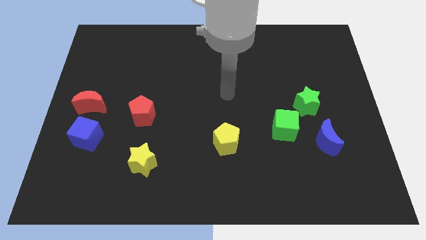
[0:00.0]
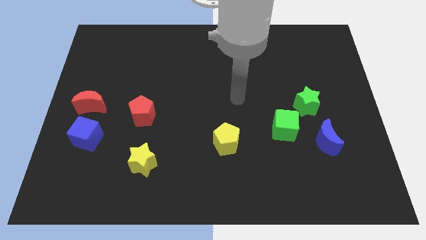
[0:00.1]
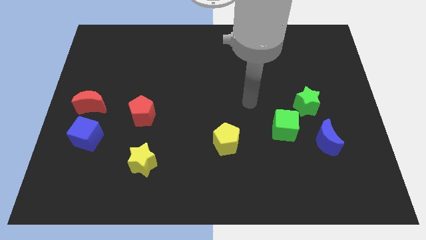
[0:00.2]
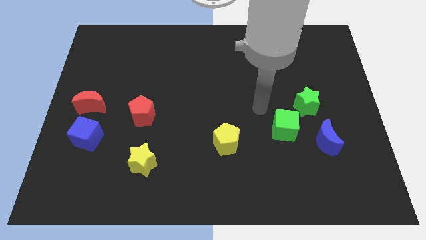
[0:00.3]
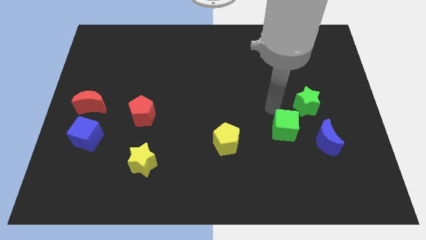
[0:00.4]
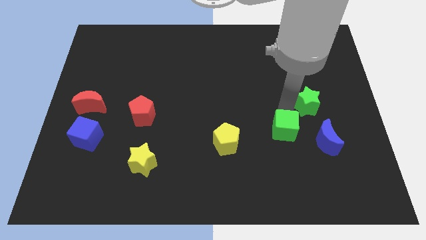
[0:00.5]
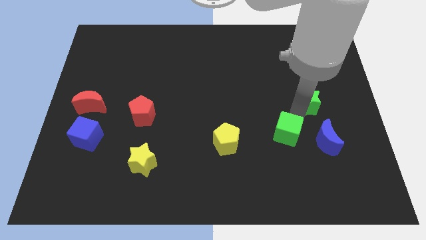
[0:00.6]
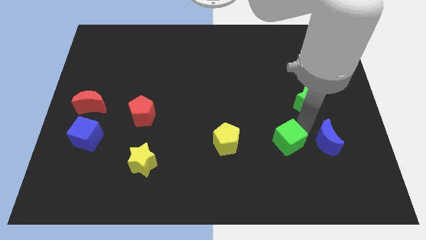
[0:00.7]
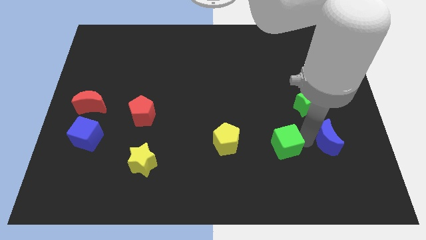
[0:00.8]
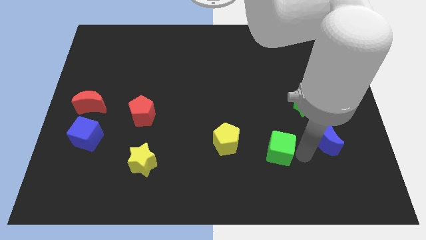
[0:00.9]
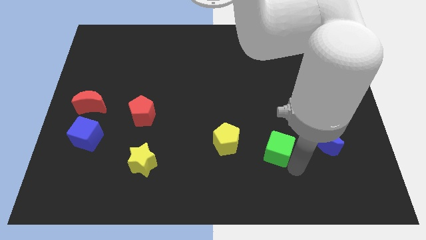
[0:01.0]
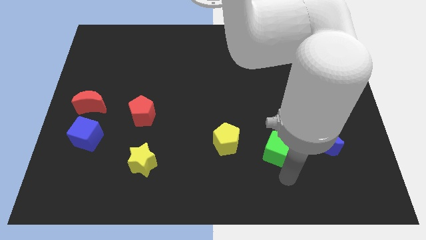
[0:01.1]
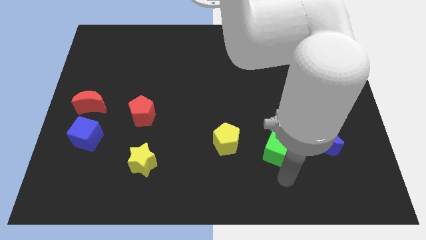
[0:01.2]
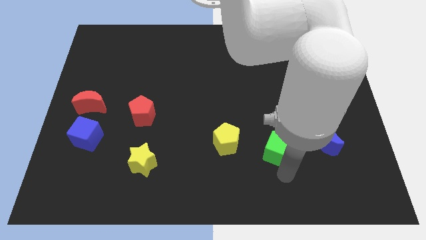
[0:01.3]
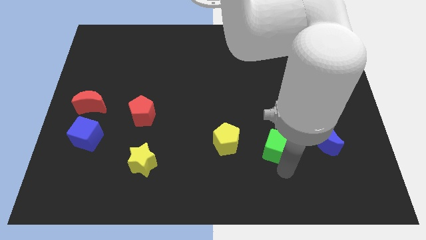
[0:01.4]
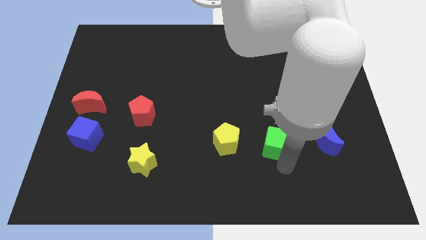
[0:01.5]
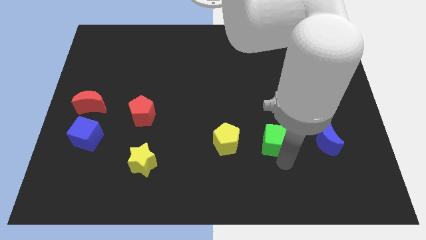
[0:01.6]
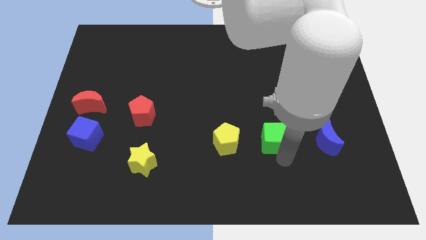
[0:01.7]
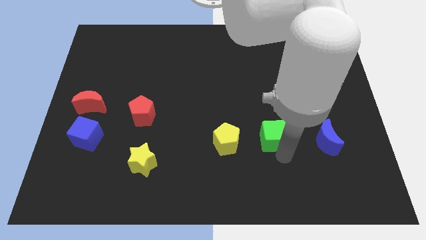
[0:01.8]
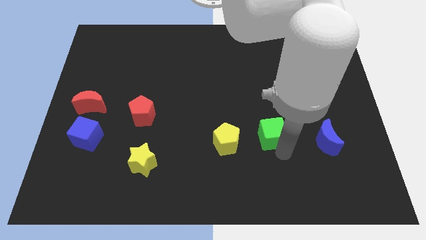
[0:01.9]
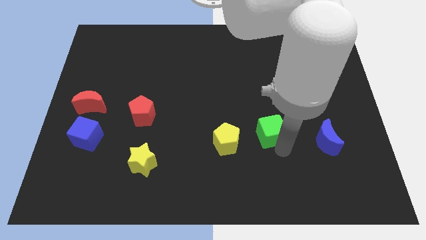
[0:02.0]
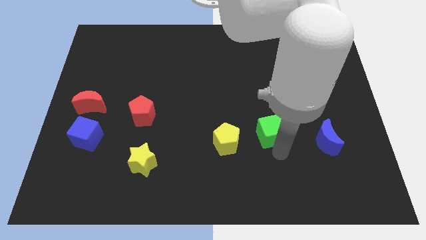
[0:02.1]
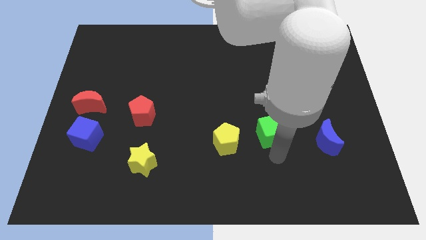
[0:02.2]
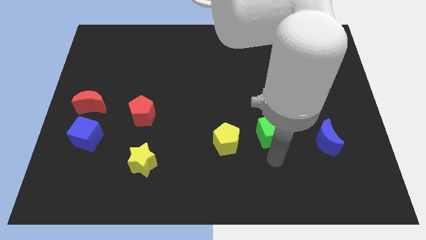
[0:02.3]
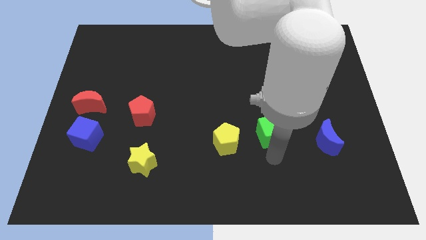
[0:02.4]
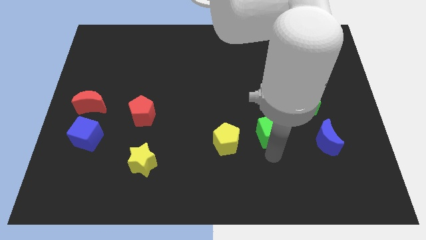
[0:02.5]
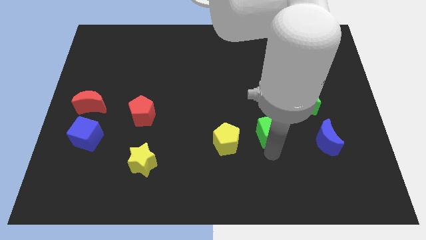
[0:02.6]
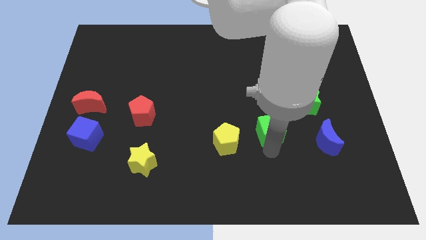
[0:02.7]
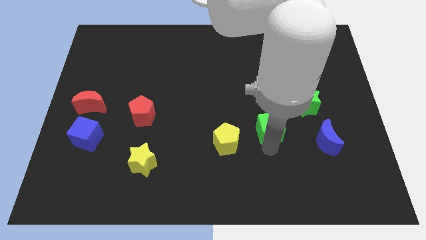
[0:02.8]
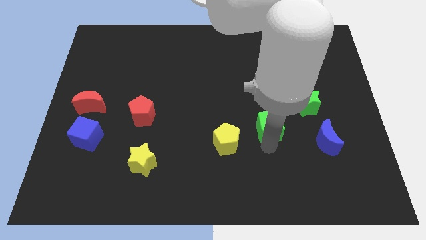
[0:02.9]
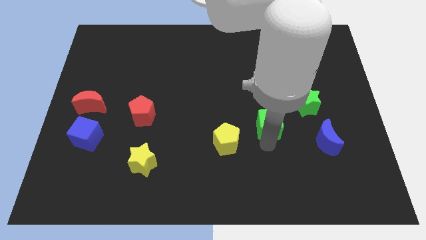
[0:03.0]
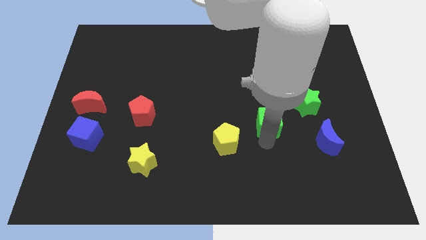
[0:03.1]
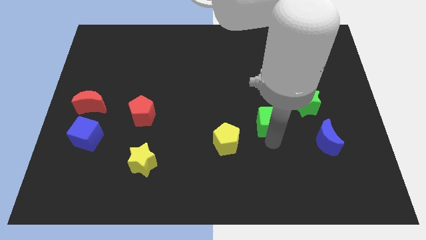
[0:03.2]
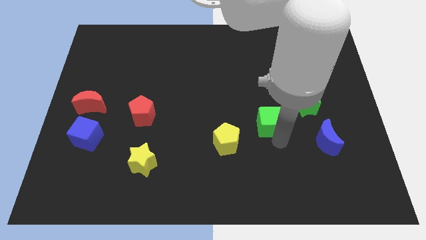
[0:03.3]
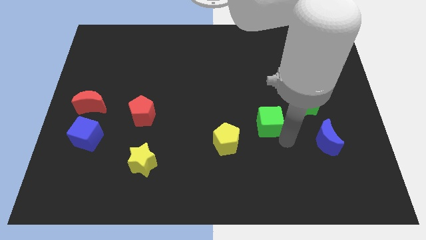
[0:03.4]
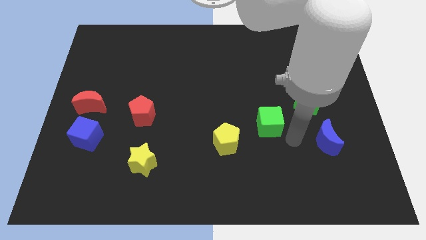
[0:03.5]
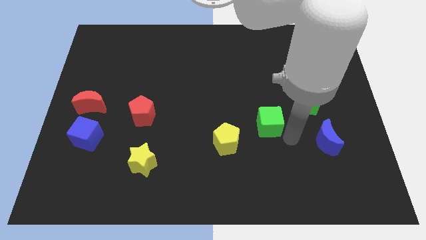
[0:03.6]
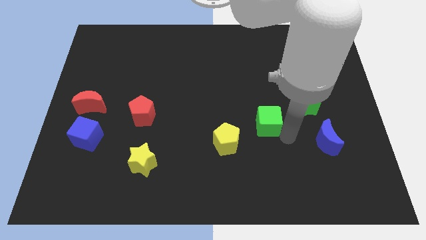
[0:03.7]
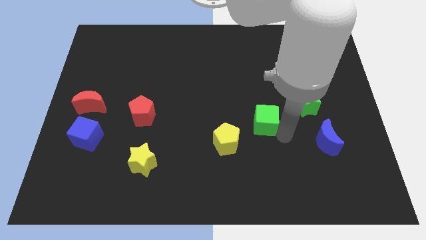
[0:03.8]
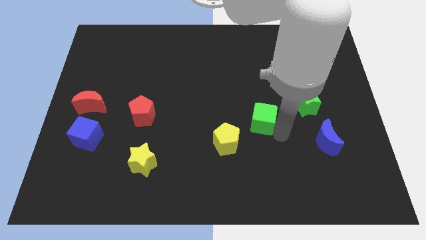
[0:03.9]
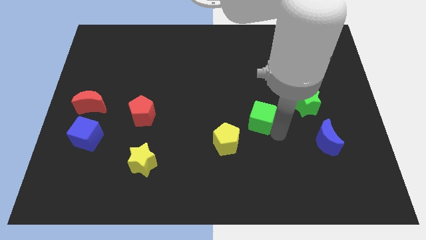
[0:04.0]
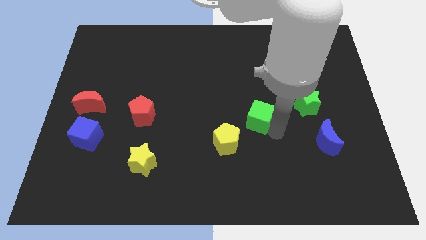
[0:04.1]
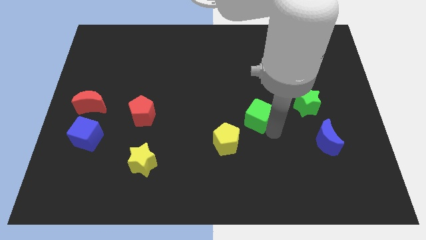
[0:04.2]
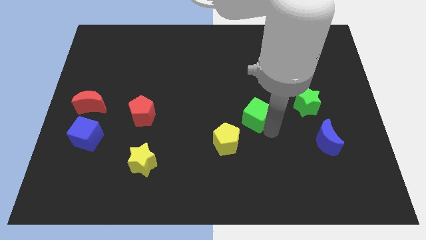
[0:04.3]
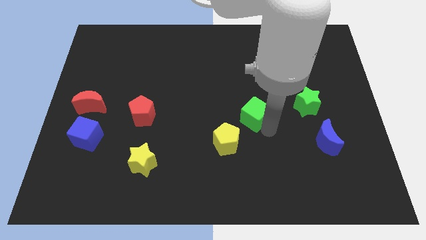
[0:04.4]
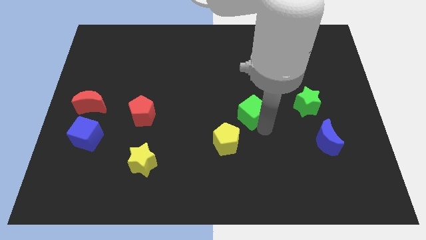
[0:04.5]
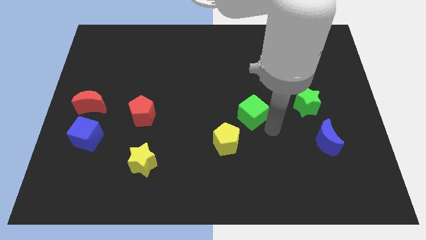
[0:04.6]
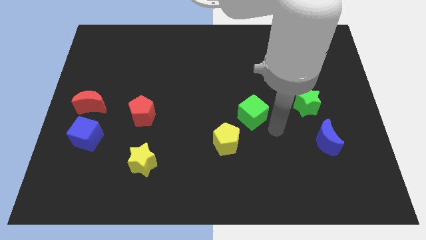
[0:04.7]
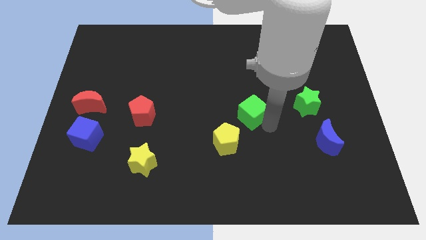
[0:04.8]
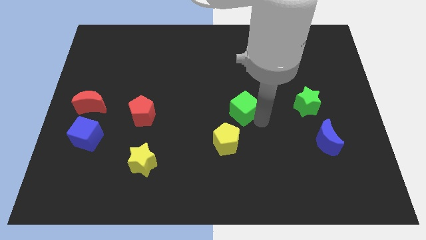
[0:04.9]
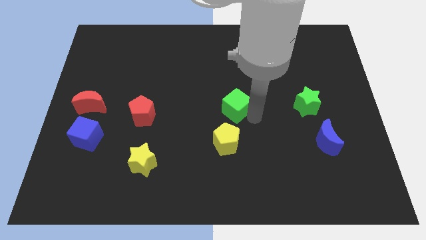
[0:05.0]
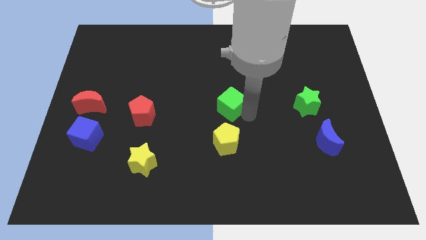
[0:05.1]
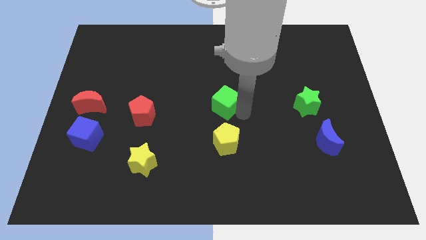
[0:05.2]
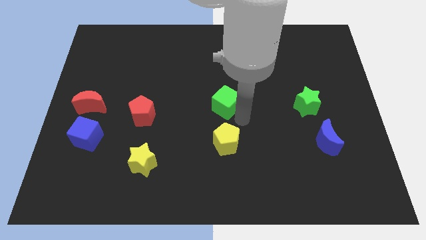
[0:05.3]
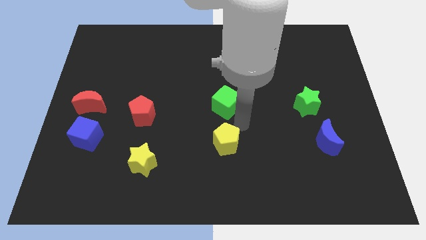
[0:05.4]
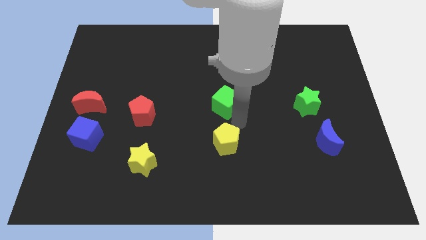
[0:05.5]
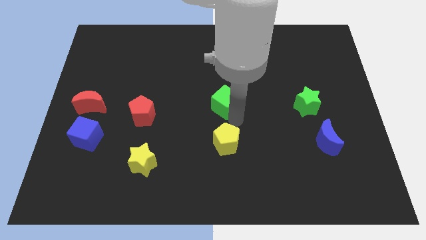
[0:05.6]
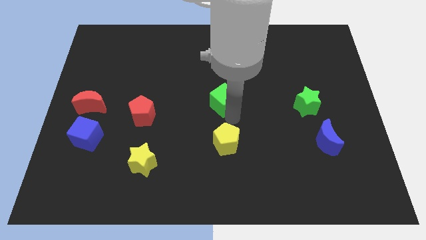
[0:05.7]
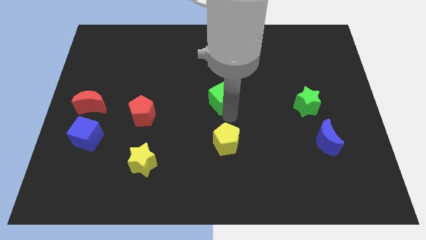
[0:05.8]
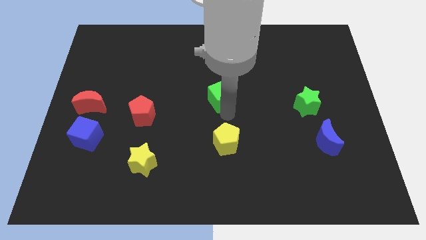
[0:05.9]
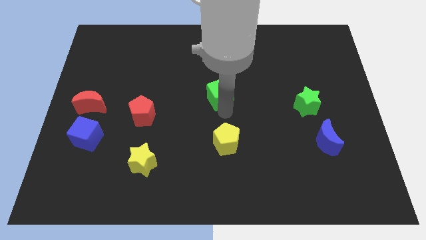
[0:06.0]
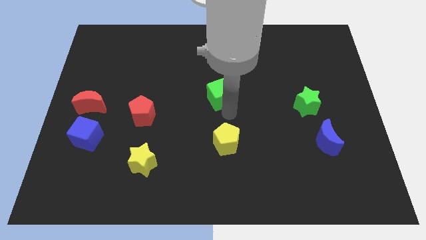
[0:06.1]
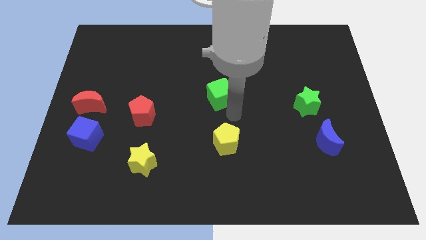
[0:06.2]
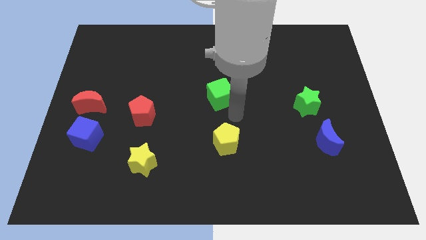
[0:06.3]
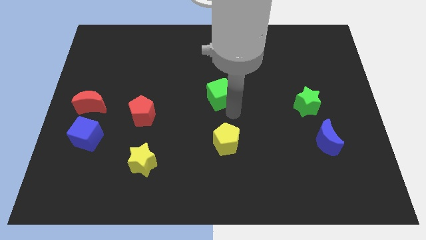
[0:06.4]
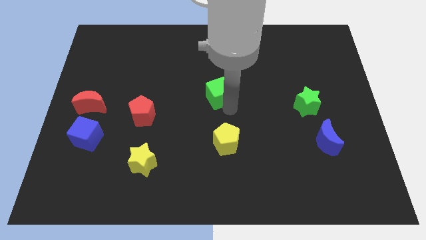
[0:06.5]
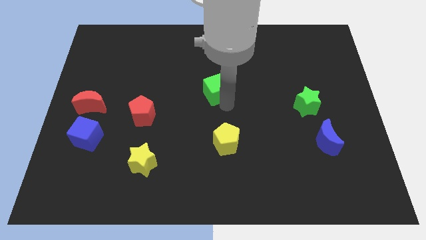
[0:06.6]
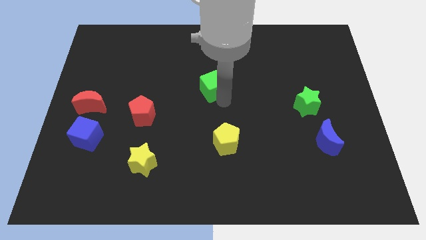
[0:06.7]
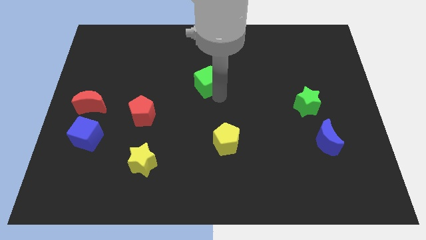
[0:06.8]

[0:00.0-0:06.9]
push the green cube up and left diagonally

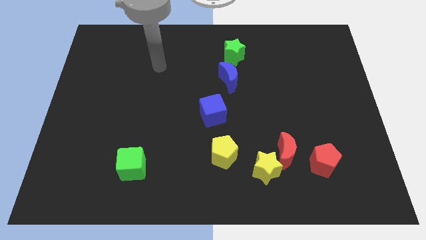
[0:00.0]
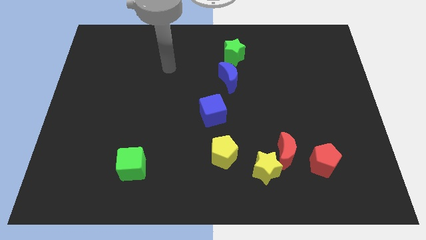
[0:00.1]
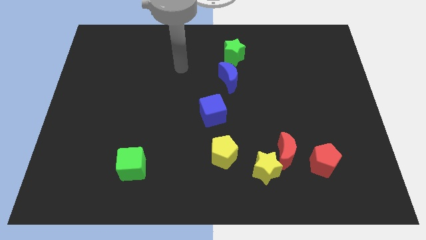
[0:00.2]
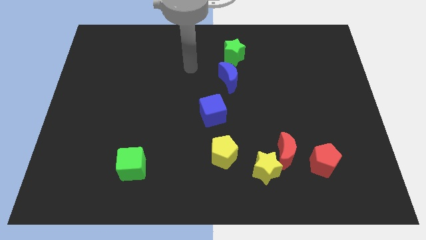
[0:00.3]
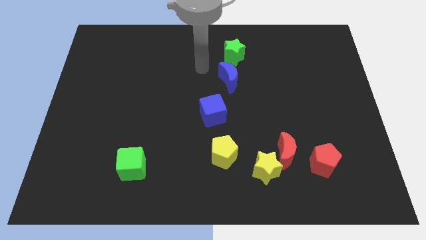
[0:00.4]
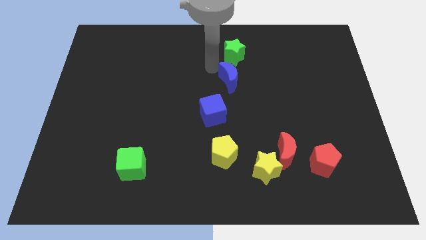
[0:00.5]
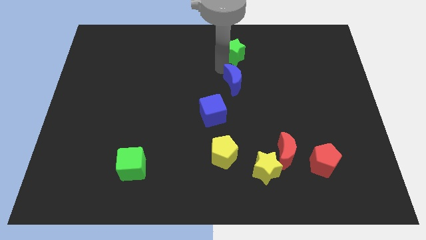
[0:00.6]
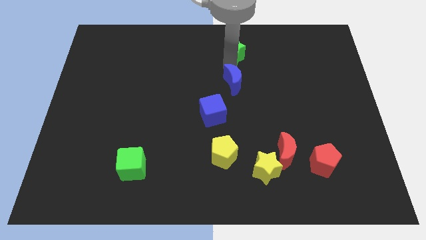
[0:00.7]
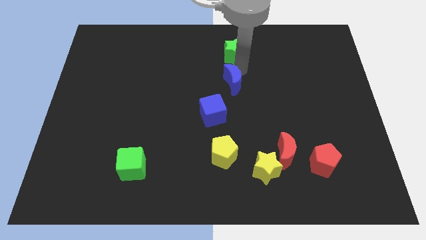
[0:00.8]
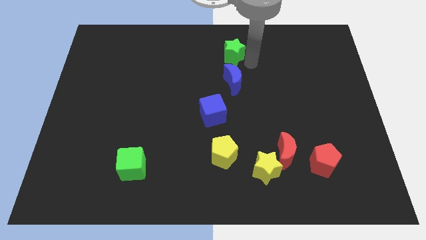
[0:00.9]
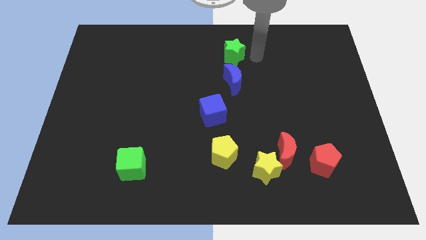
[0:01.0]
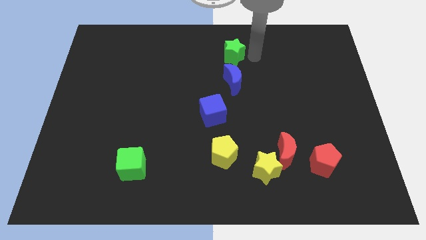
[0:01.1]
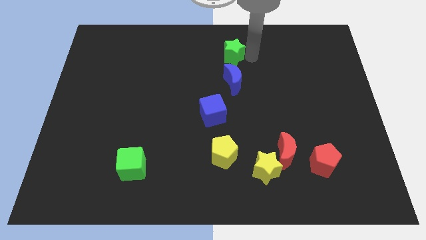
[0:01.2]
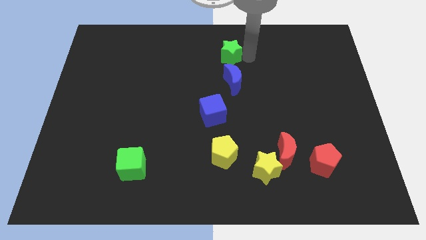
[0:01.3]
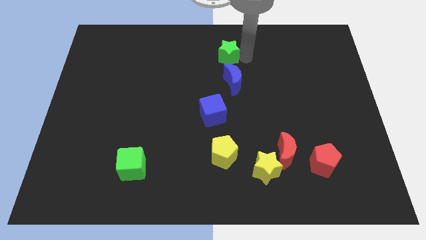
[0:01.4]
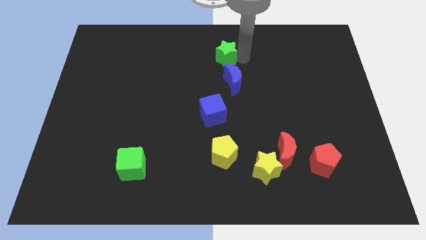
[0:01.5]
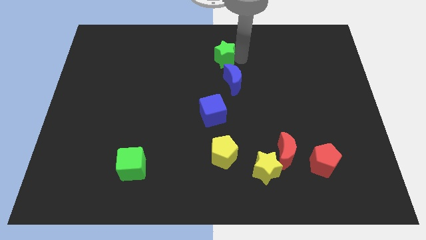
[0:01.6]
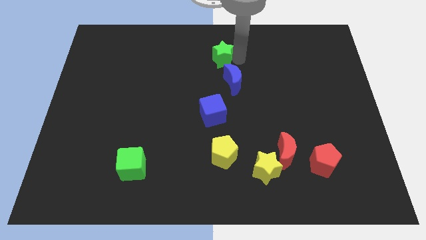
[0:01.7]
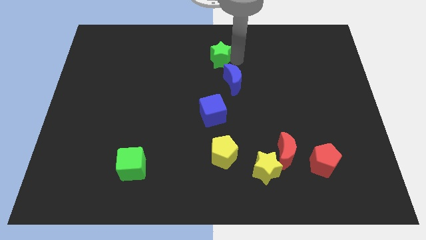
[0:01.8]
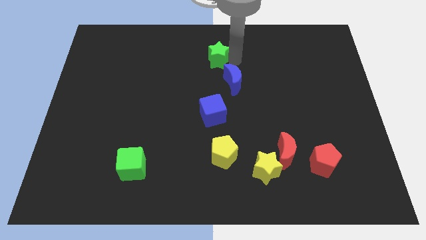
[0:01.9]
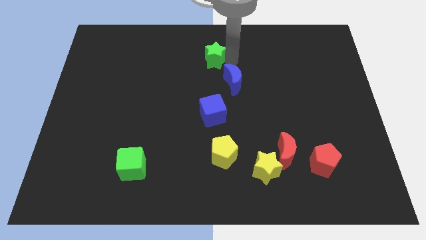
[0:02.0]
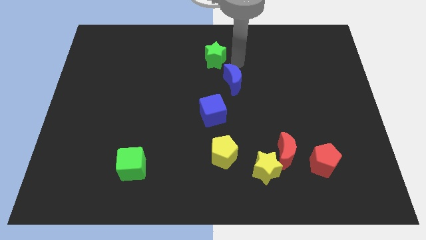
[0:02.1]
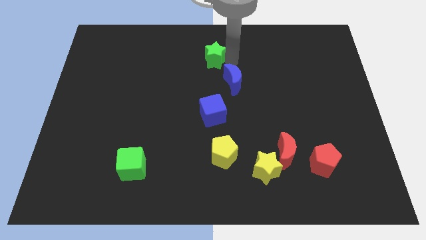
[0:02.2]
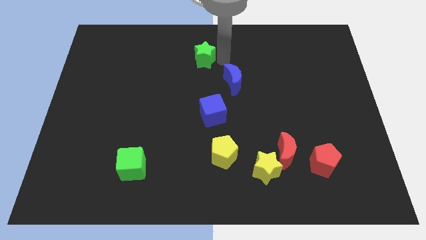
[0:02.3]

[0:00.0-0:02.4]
slightly slide the green star to the left
